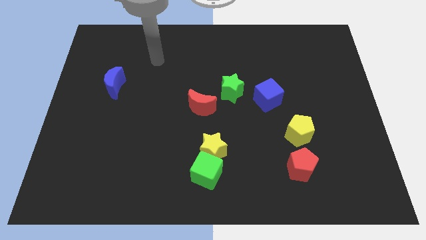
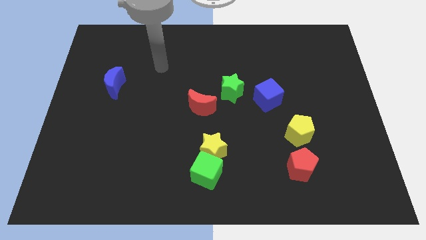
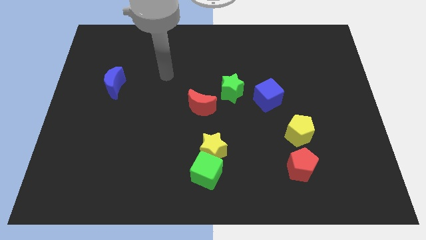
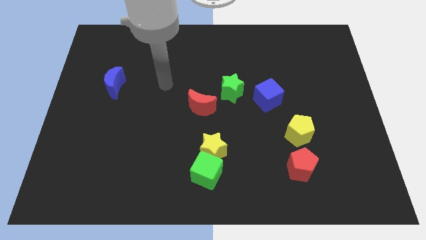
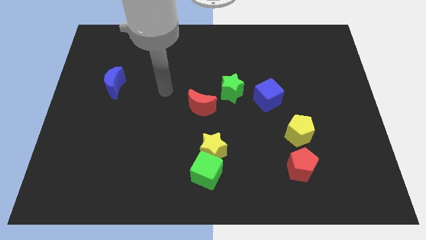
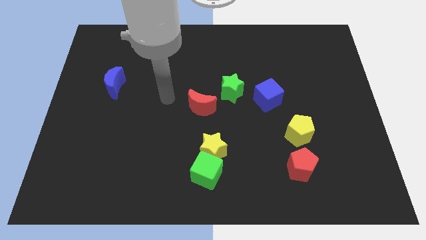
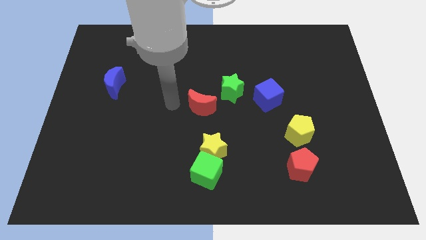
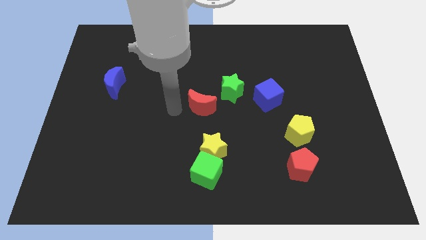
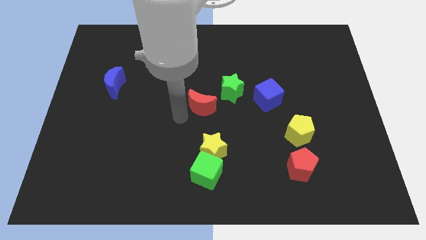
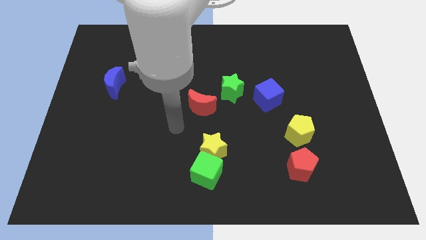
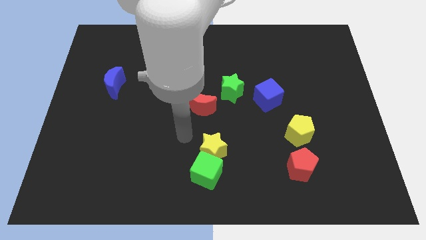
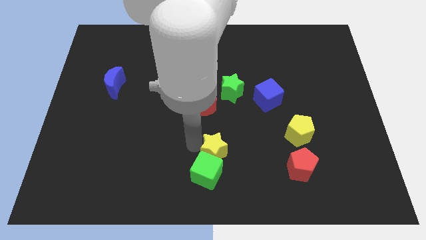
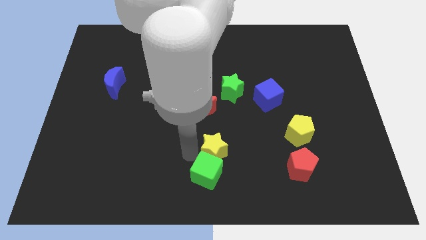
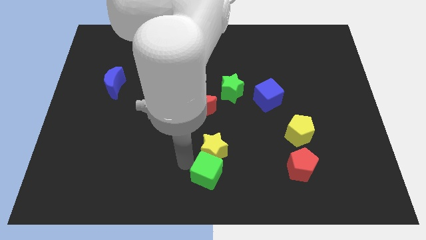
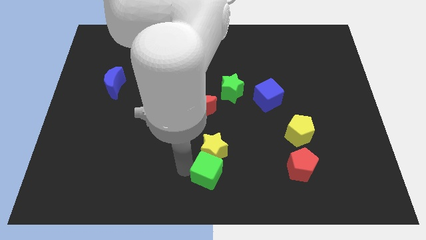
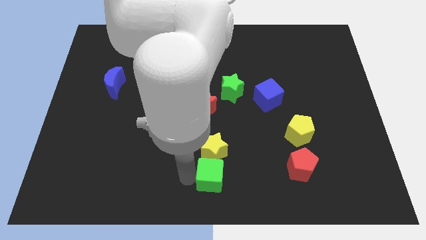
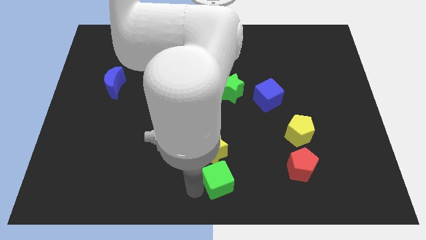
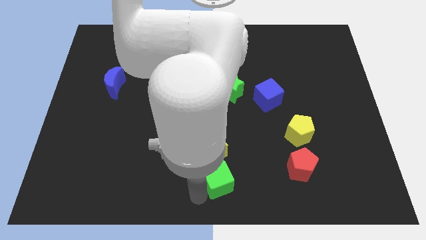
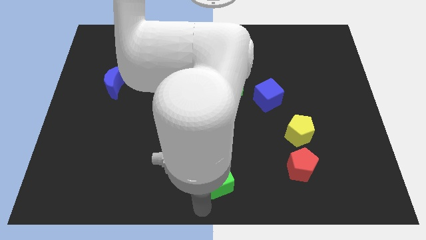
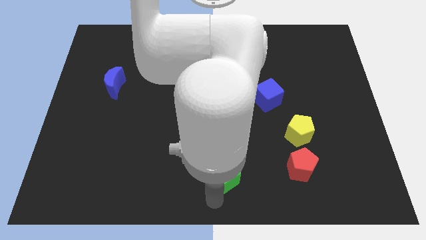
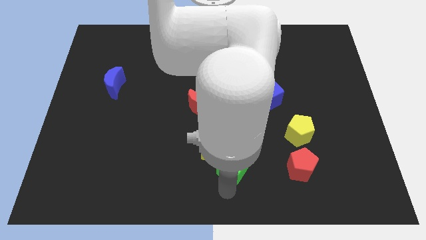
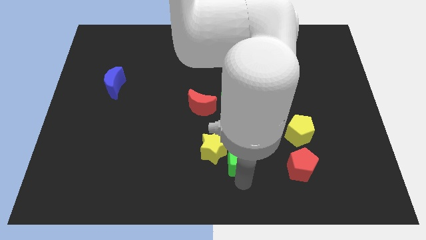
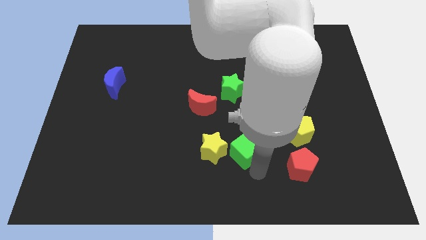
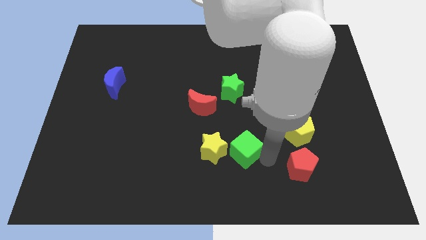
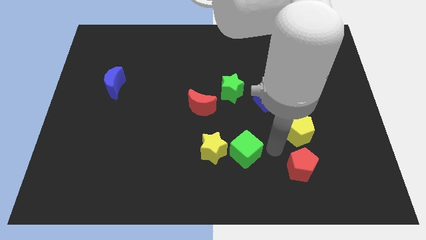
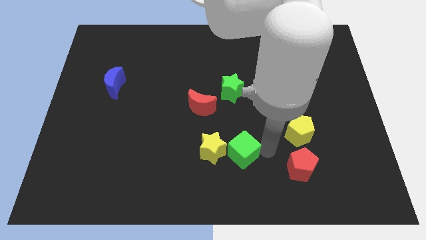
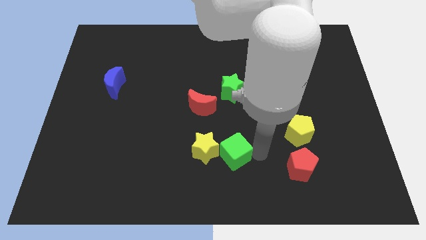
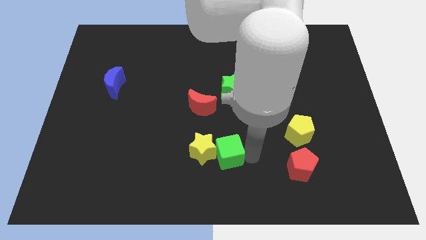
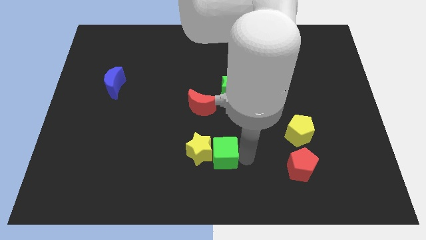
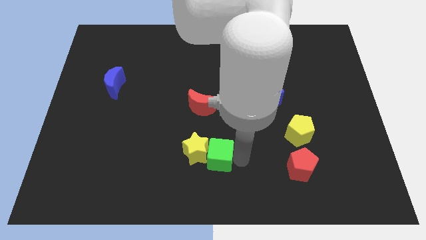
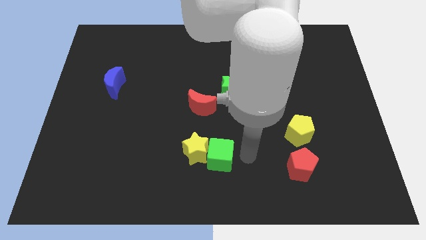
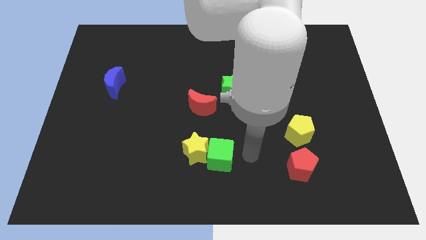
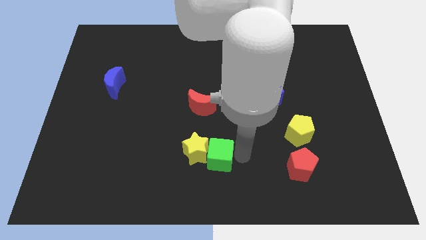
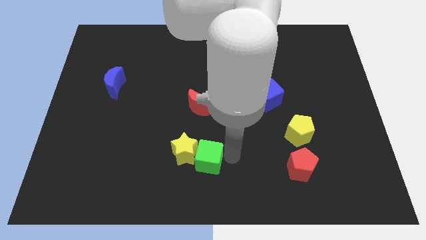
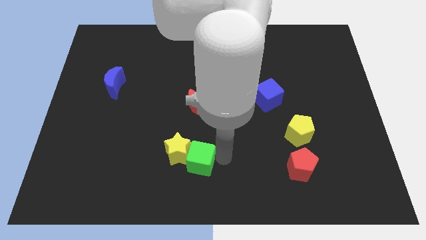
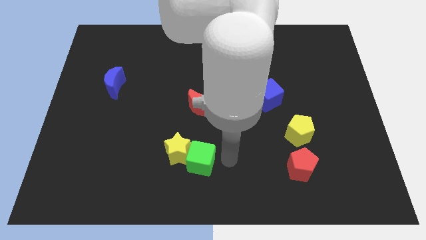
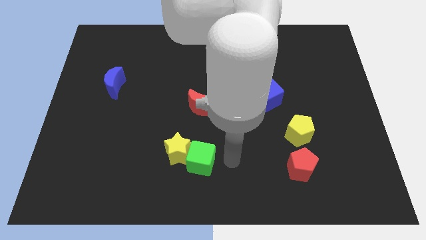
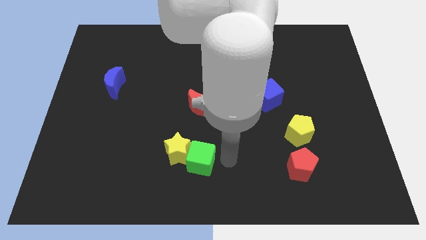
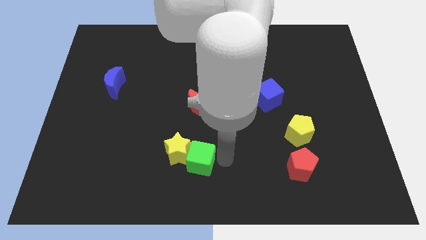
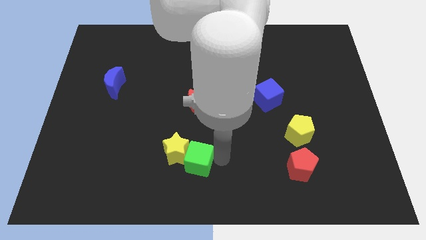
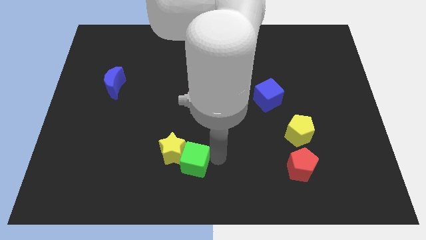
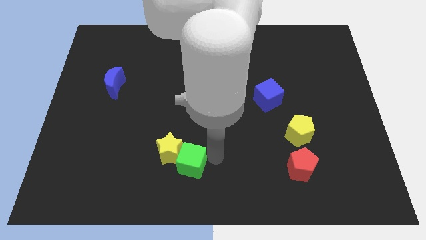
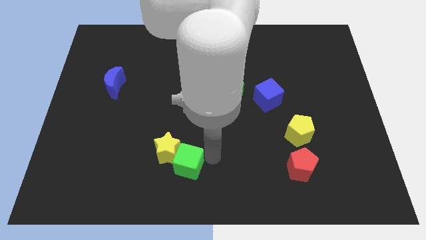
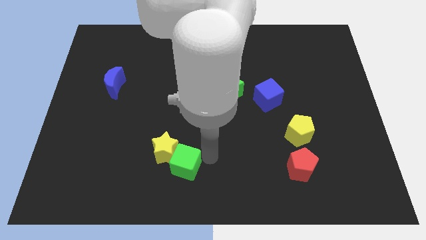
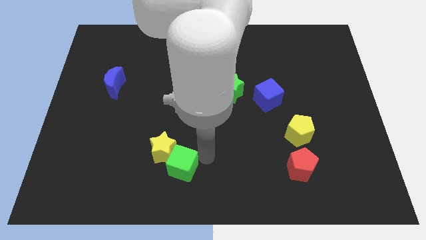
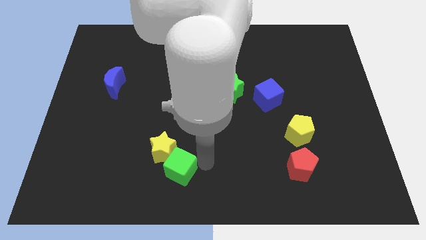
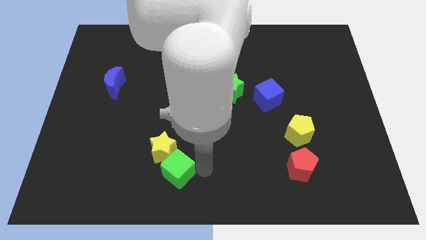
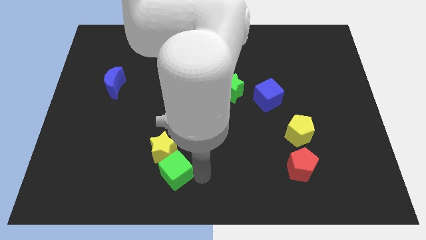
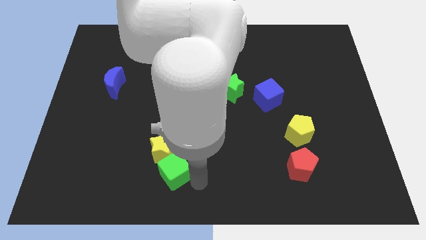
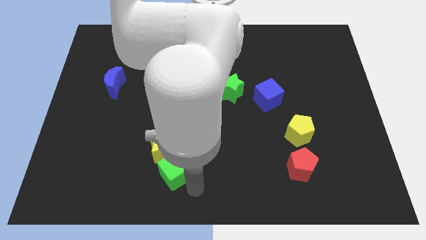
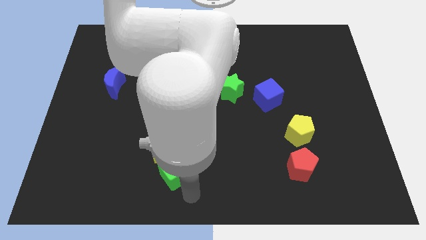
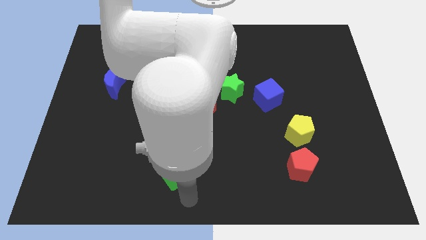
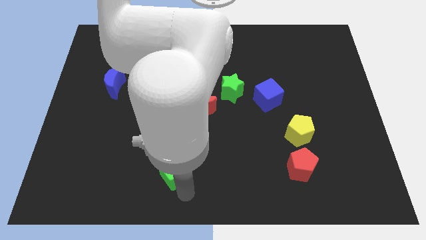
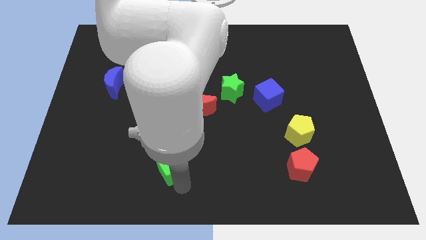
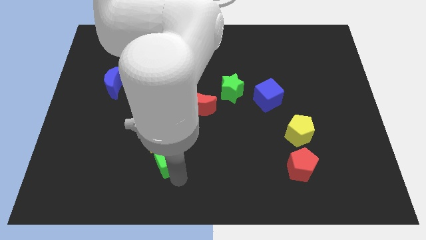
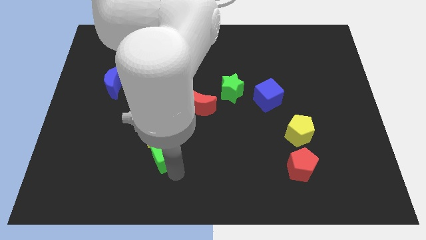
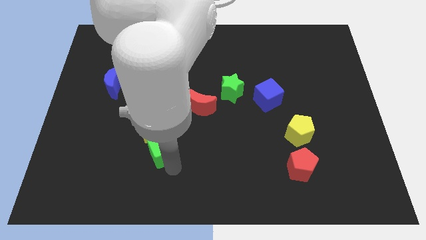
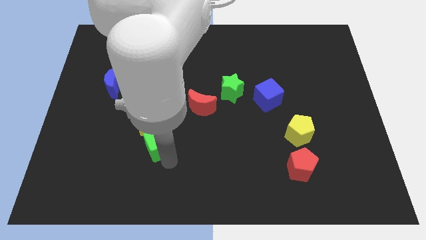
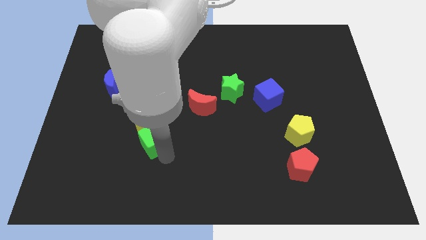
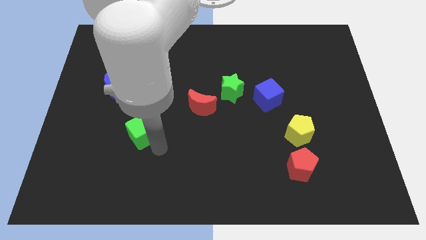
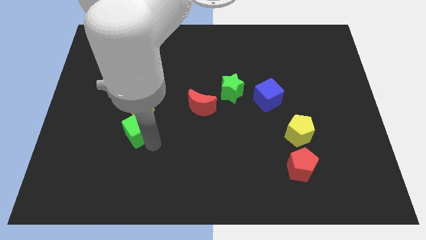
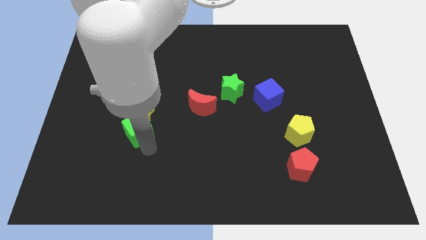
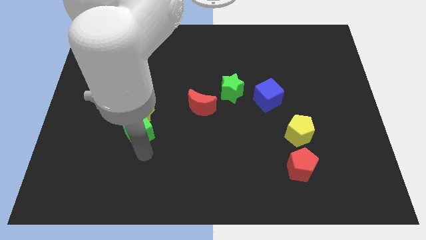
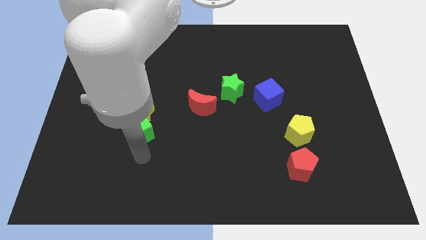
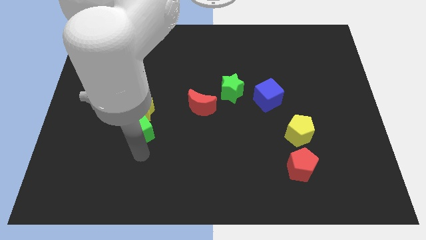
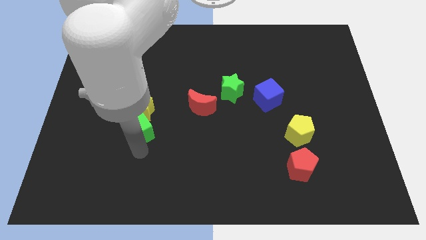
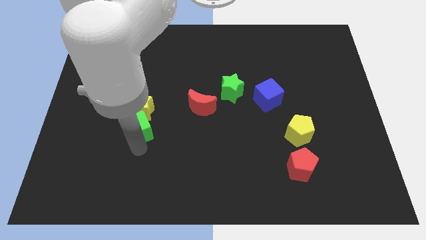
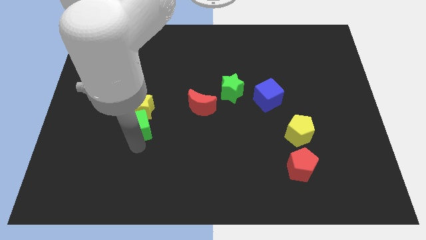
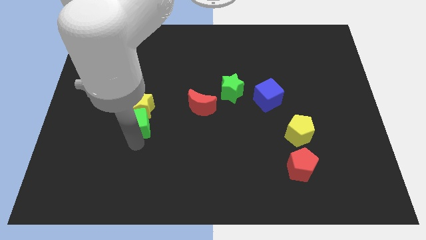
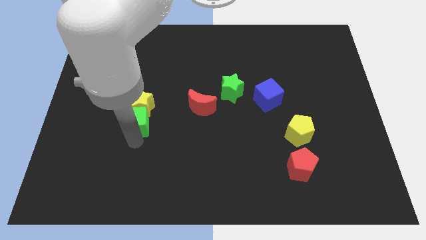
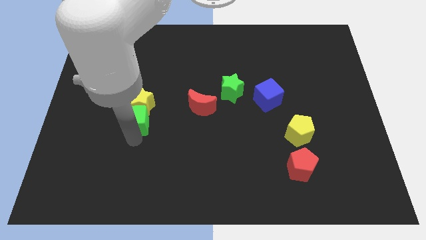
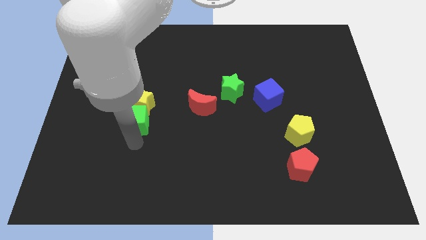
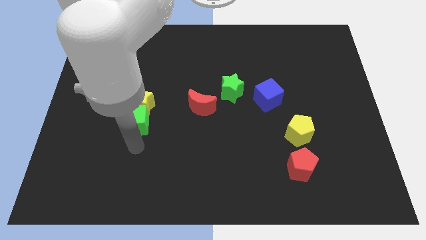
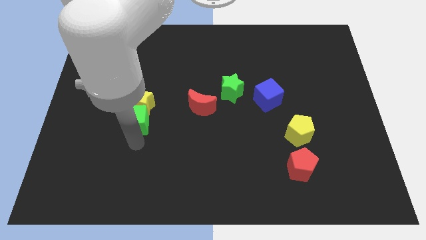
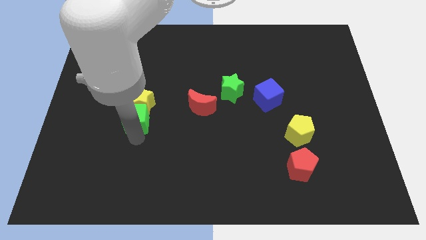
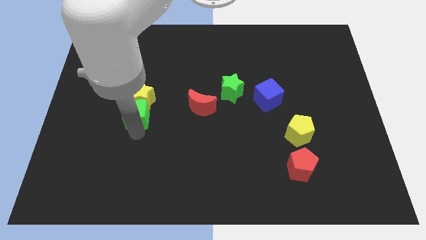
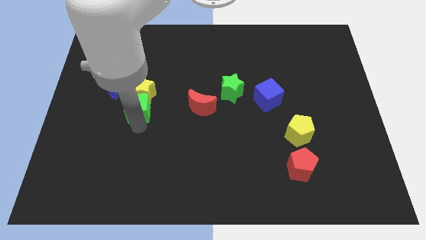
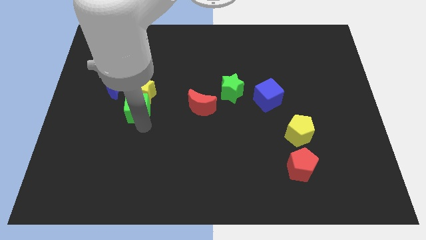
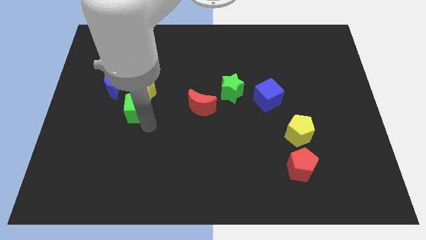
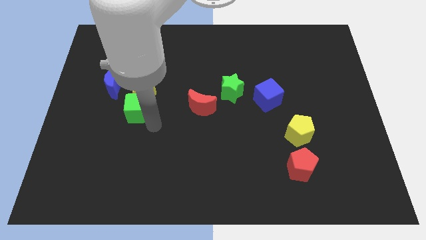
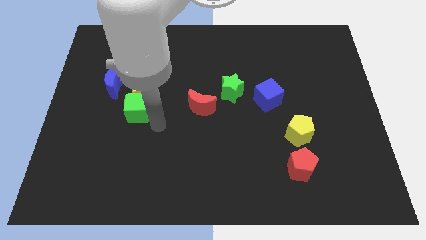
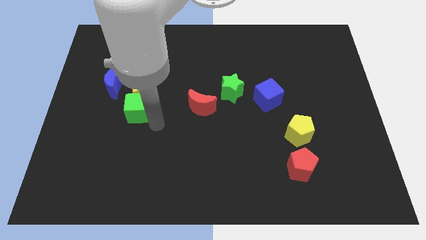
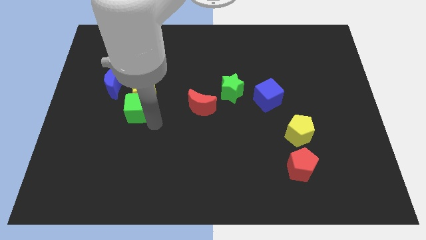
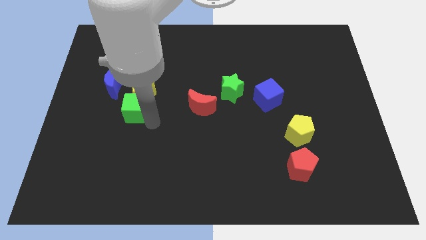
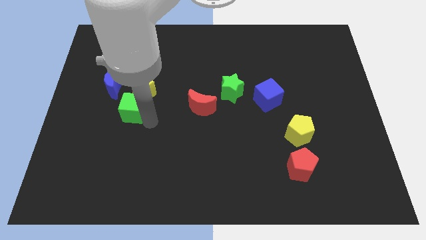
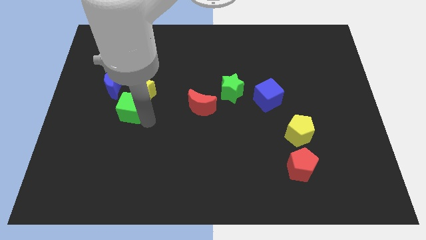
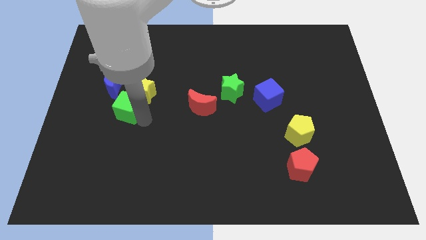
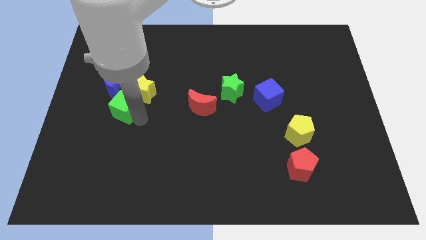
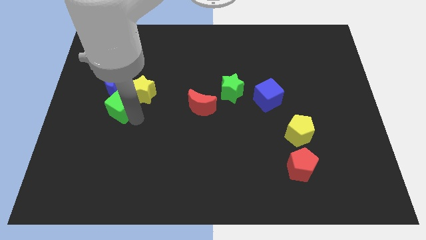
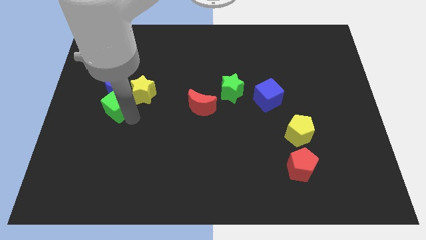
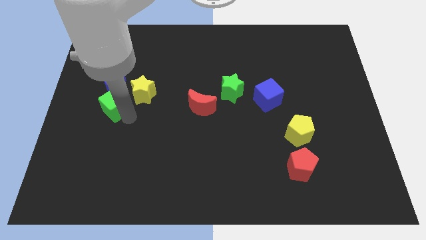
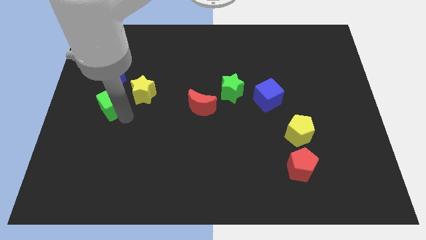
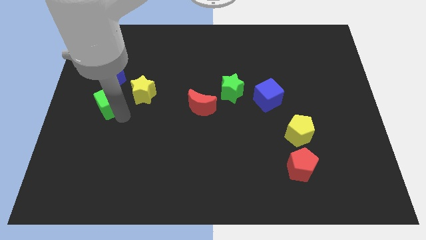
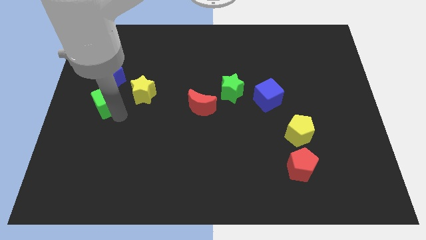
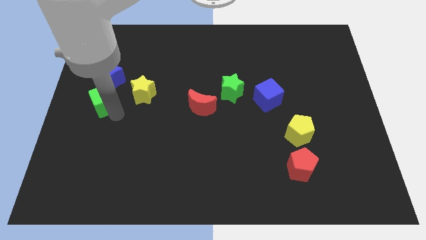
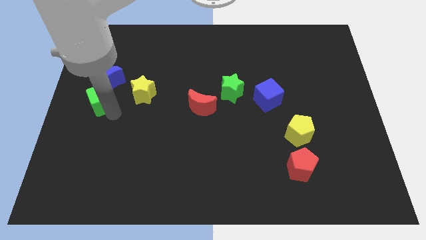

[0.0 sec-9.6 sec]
slide the green cube towards the blue moon
